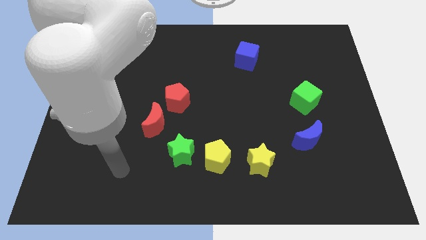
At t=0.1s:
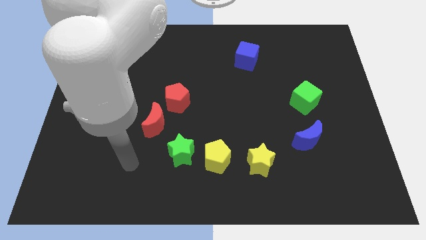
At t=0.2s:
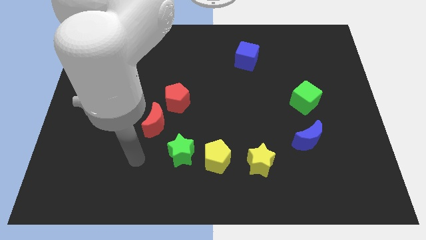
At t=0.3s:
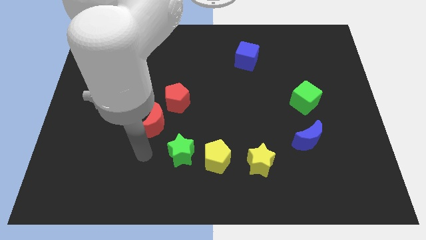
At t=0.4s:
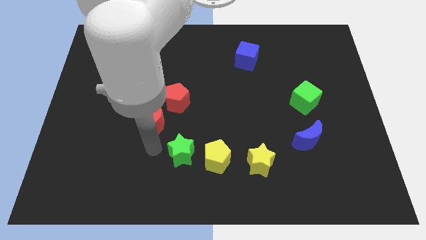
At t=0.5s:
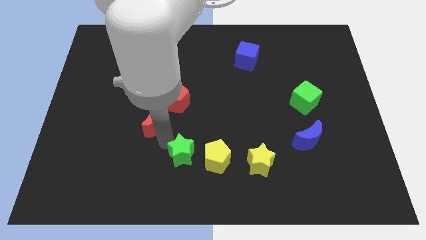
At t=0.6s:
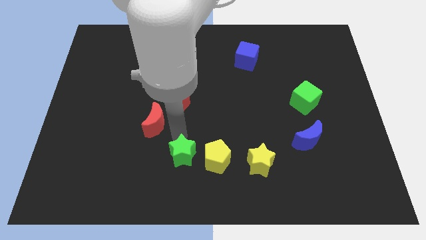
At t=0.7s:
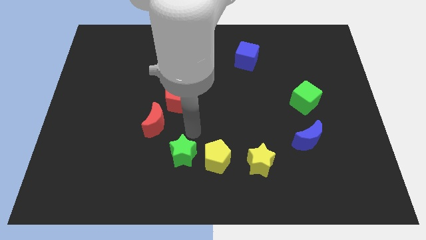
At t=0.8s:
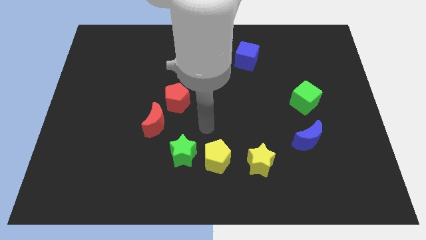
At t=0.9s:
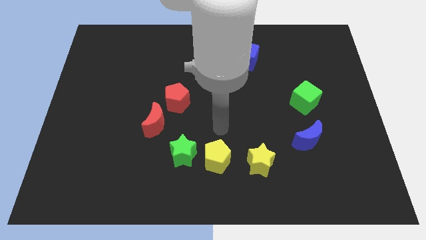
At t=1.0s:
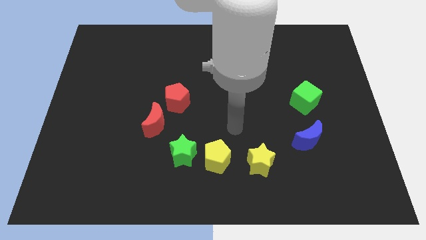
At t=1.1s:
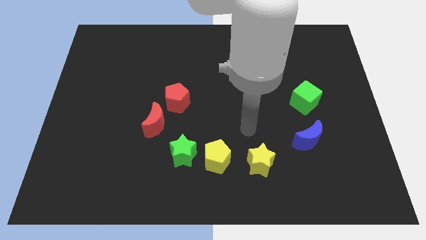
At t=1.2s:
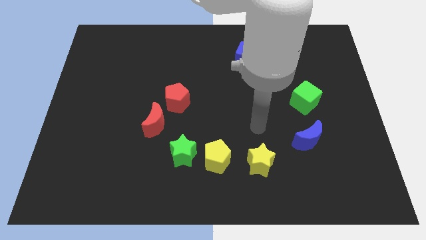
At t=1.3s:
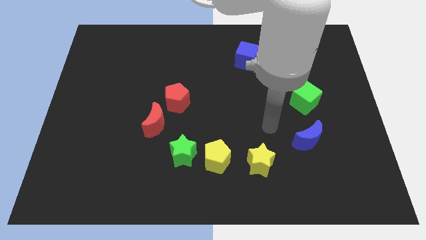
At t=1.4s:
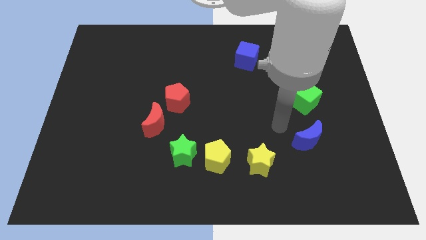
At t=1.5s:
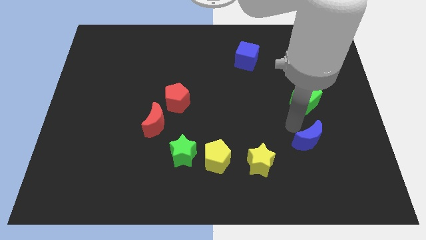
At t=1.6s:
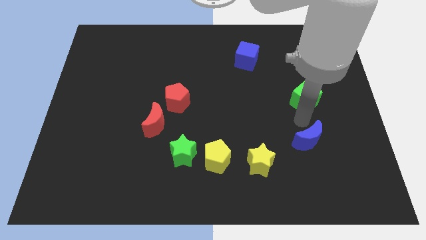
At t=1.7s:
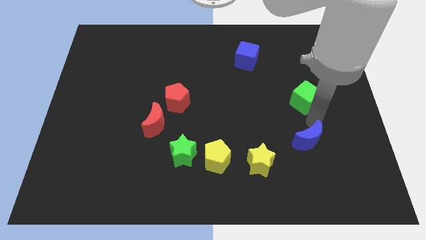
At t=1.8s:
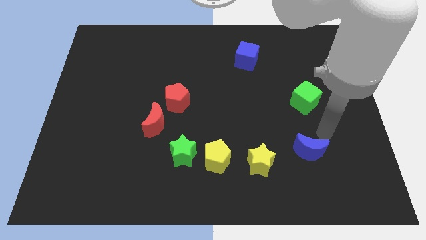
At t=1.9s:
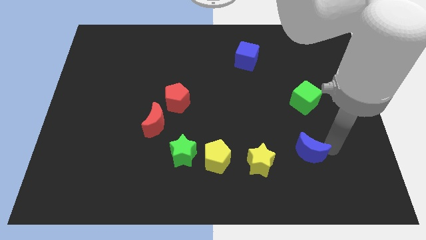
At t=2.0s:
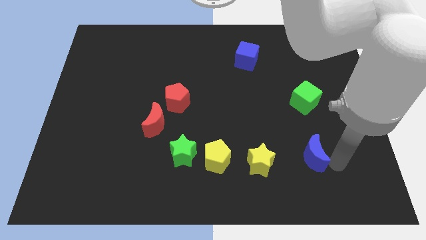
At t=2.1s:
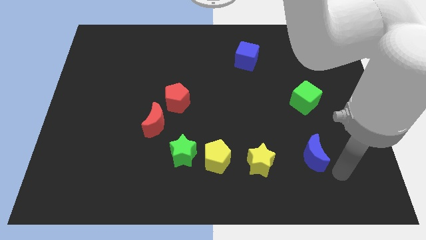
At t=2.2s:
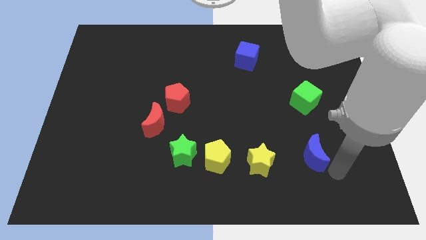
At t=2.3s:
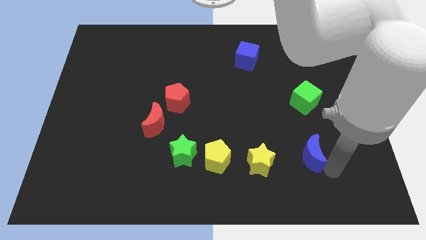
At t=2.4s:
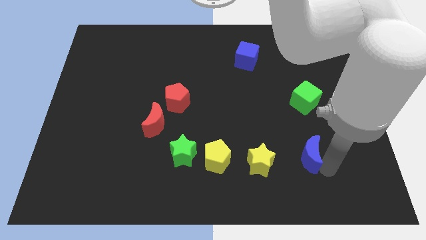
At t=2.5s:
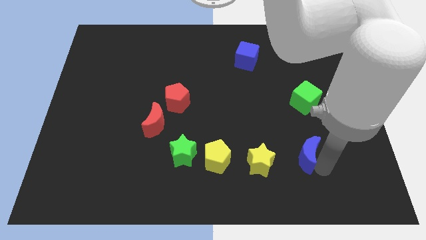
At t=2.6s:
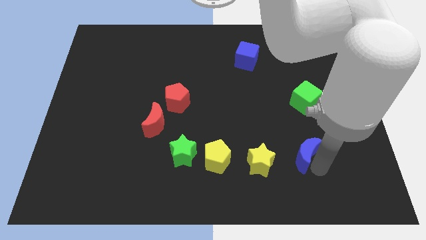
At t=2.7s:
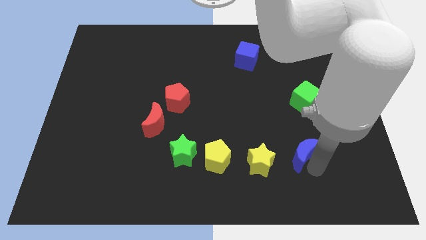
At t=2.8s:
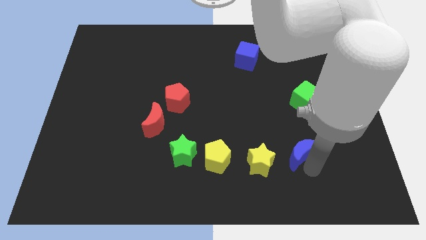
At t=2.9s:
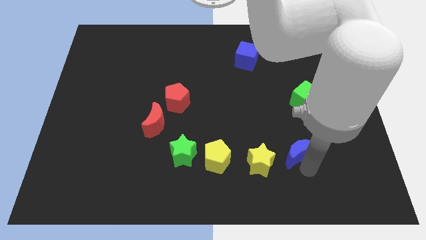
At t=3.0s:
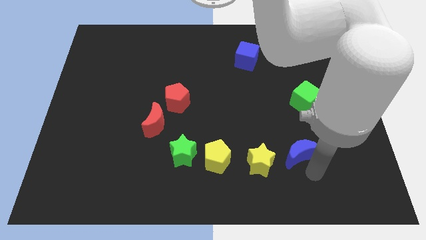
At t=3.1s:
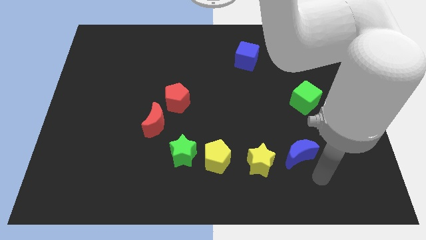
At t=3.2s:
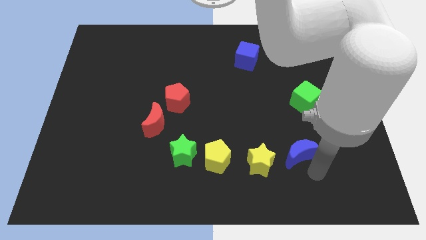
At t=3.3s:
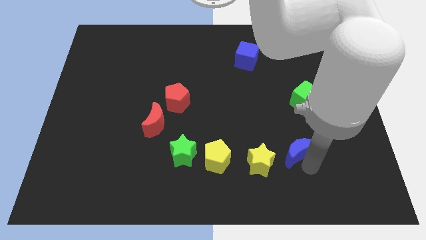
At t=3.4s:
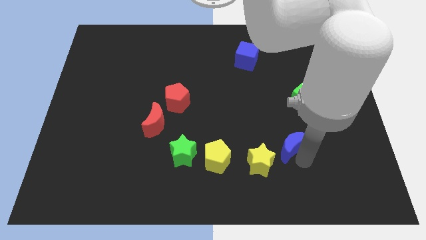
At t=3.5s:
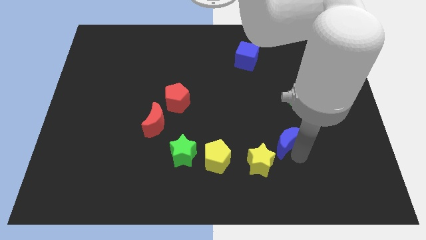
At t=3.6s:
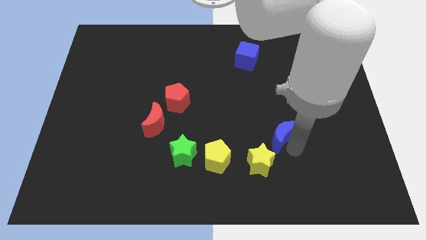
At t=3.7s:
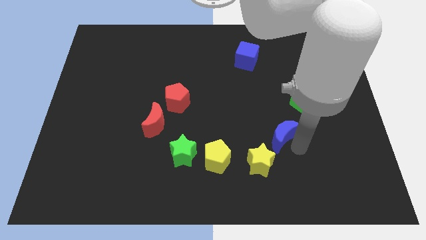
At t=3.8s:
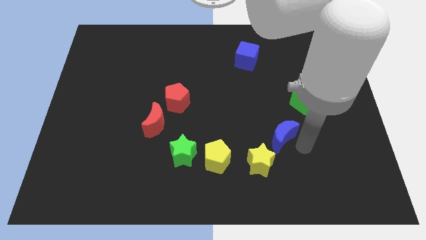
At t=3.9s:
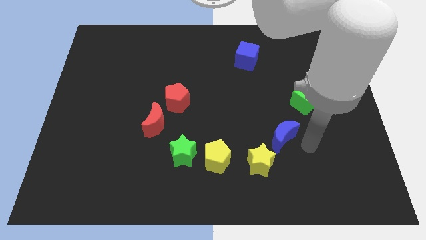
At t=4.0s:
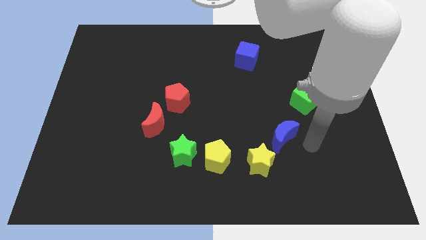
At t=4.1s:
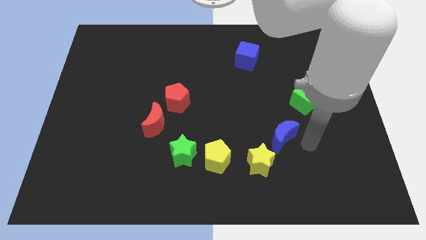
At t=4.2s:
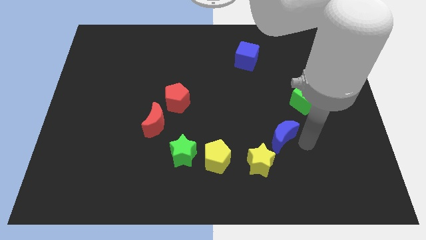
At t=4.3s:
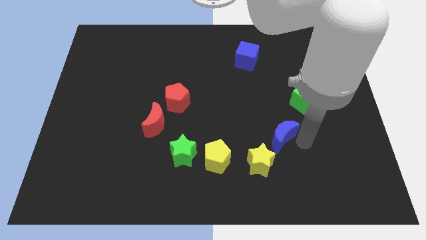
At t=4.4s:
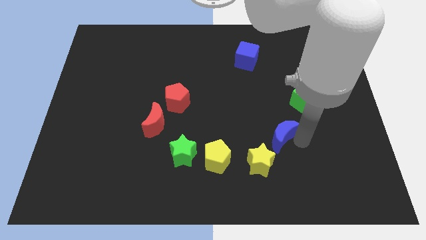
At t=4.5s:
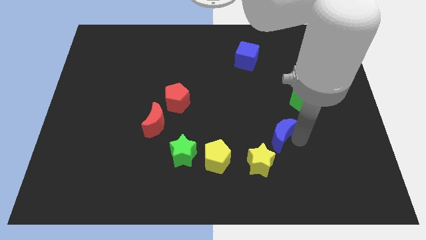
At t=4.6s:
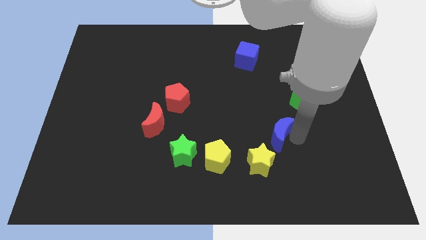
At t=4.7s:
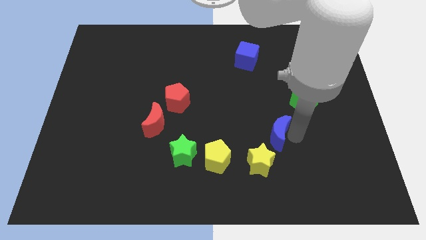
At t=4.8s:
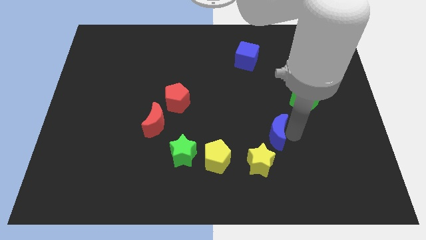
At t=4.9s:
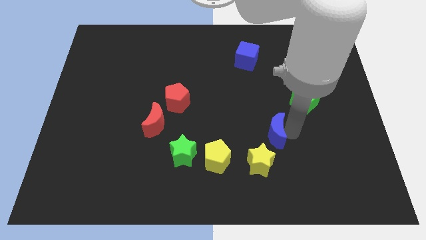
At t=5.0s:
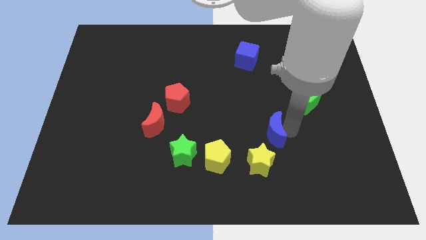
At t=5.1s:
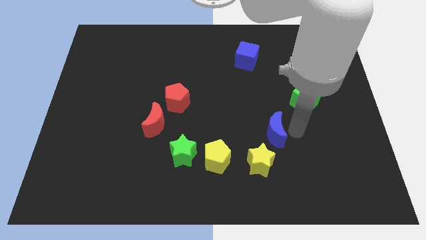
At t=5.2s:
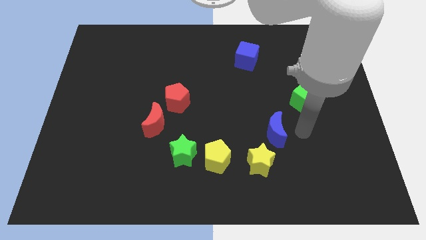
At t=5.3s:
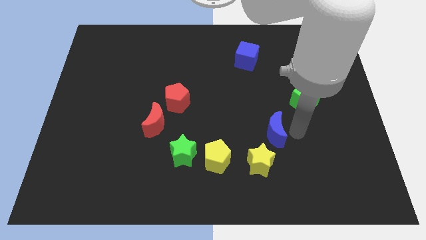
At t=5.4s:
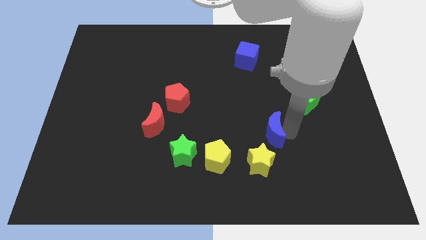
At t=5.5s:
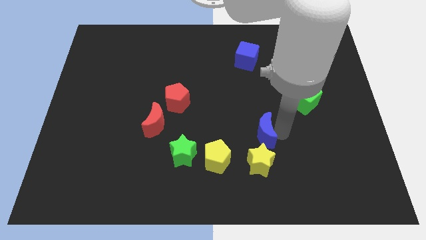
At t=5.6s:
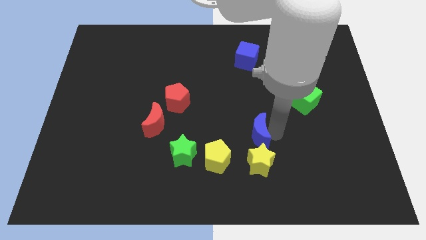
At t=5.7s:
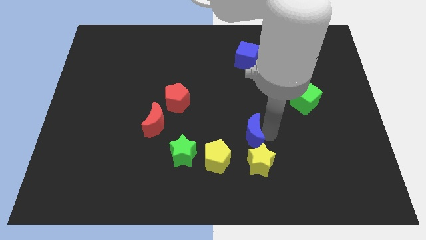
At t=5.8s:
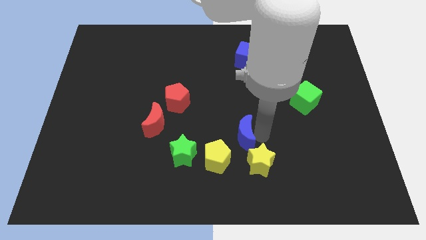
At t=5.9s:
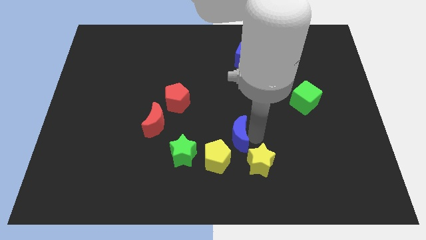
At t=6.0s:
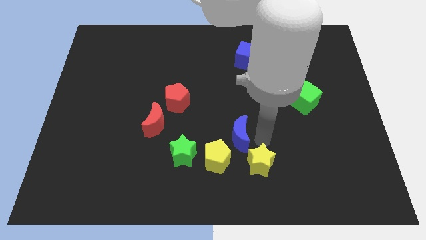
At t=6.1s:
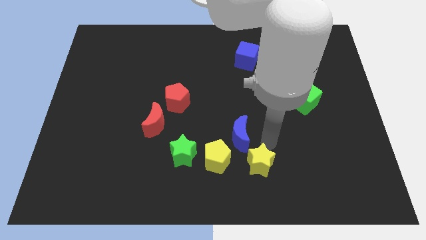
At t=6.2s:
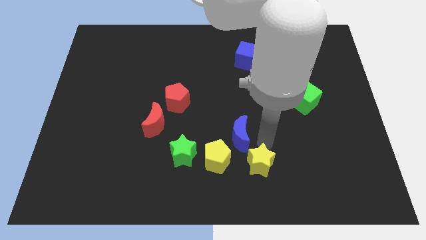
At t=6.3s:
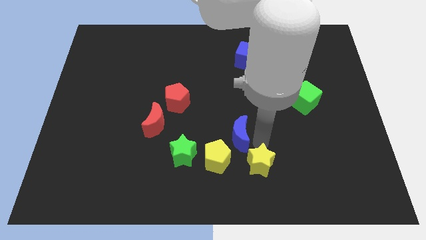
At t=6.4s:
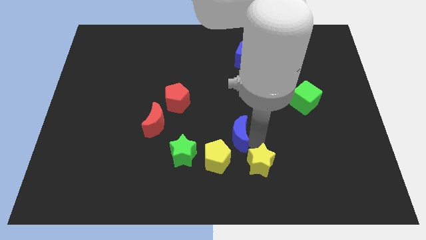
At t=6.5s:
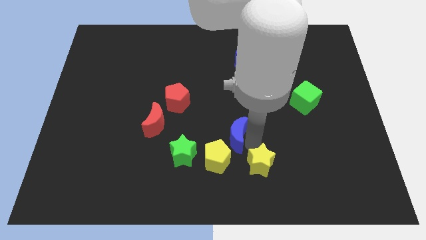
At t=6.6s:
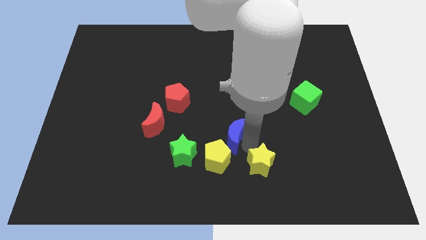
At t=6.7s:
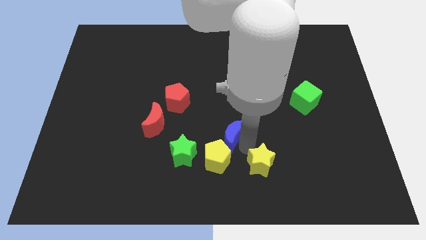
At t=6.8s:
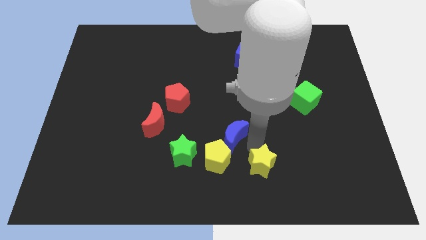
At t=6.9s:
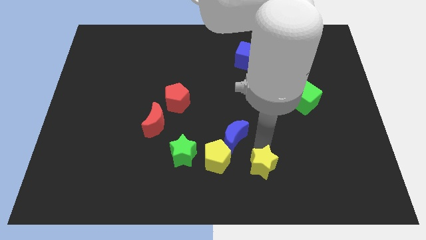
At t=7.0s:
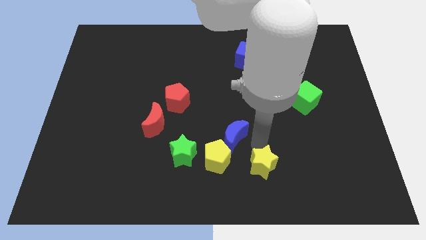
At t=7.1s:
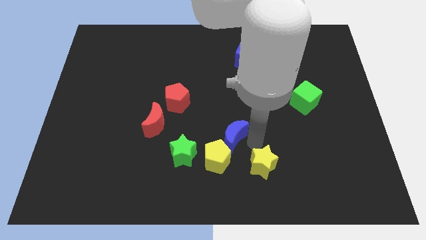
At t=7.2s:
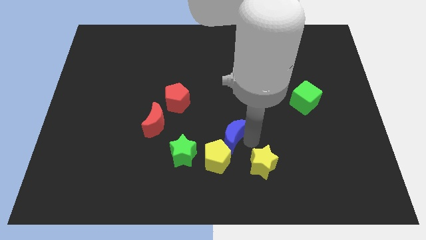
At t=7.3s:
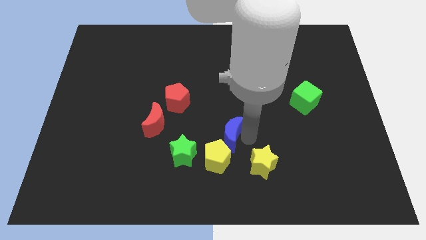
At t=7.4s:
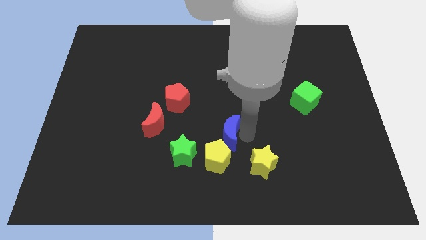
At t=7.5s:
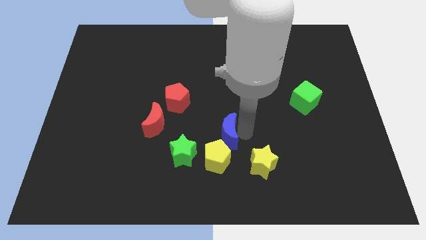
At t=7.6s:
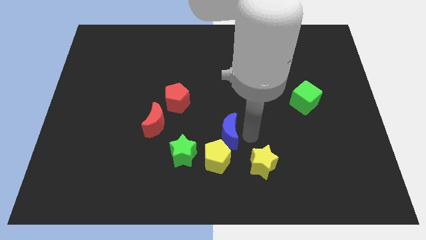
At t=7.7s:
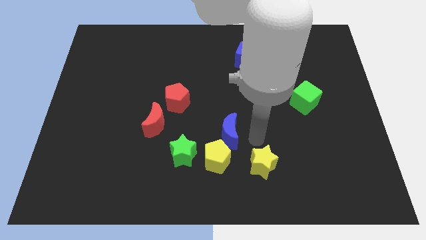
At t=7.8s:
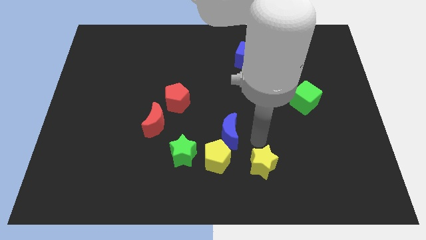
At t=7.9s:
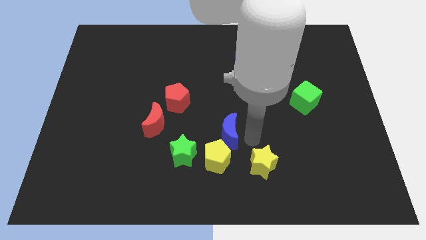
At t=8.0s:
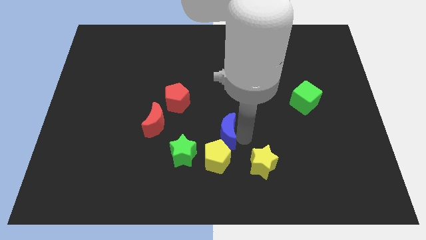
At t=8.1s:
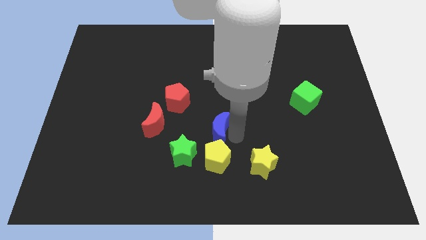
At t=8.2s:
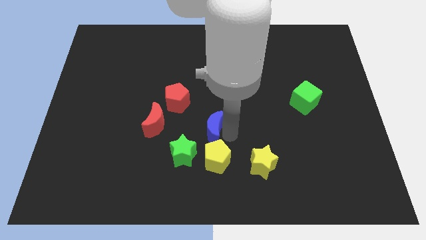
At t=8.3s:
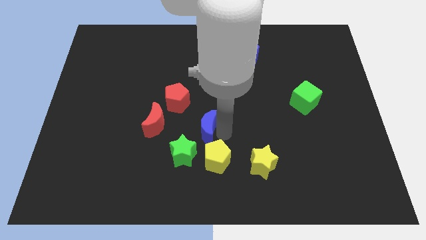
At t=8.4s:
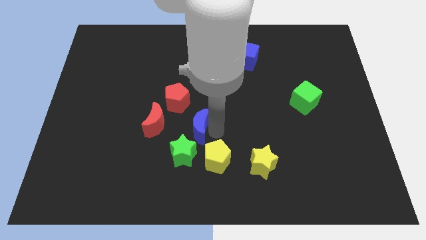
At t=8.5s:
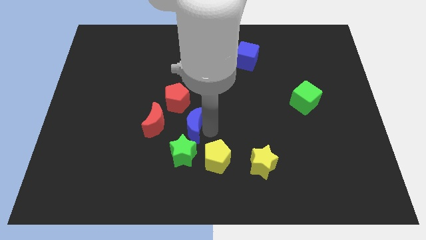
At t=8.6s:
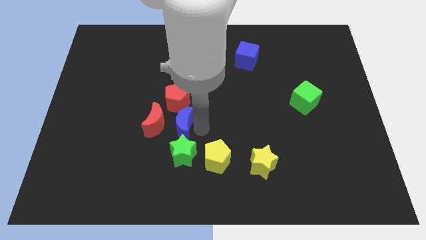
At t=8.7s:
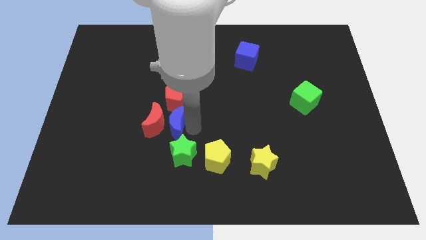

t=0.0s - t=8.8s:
move the blue moon close to the red moon
